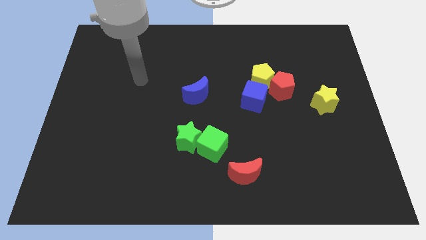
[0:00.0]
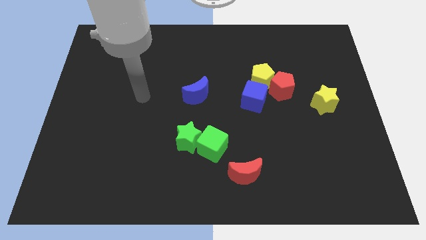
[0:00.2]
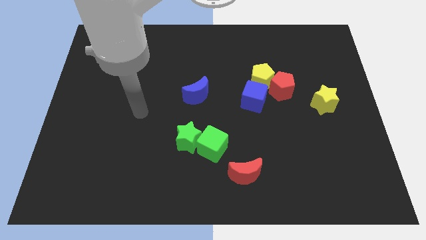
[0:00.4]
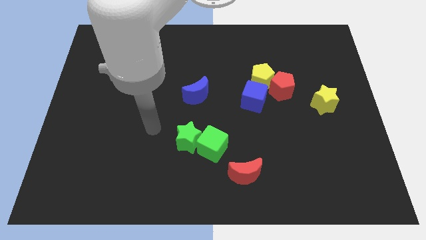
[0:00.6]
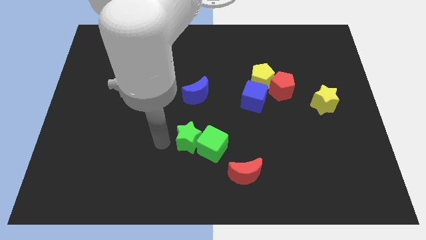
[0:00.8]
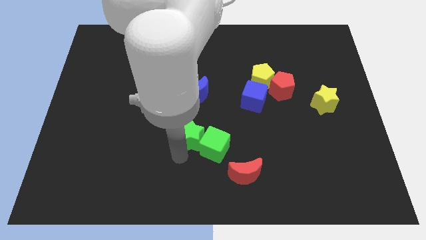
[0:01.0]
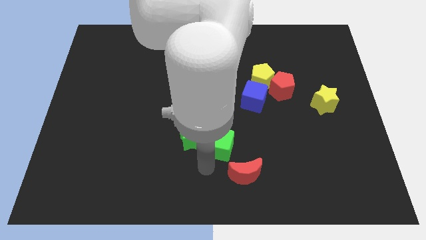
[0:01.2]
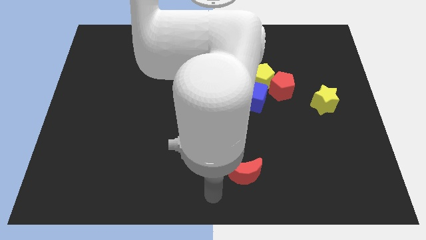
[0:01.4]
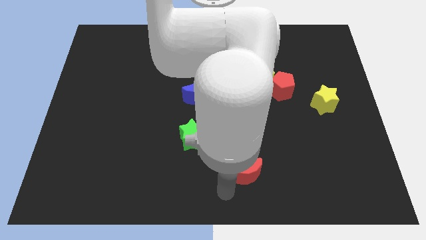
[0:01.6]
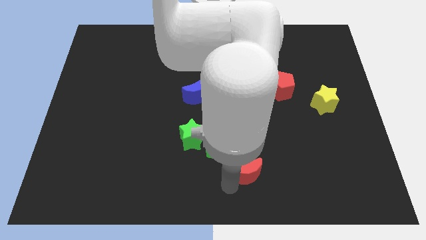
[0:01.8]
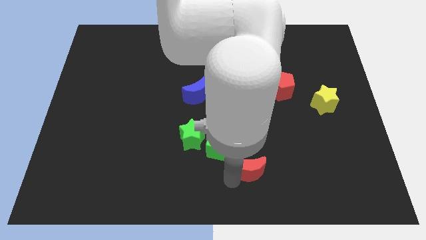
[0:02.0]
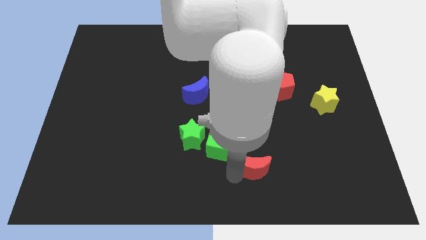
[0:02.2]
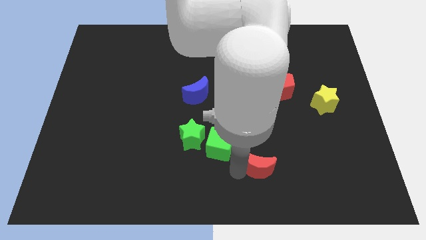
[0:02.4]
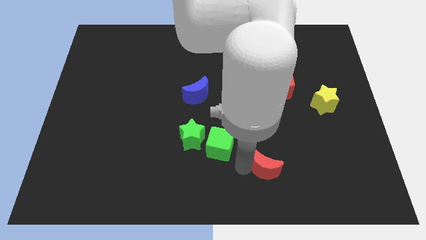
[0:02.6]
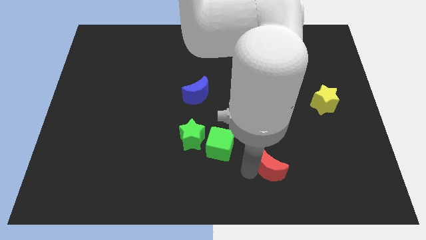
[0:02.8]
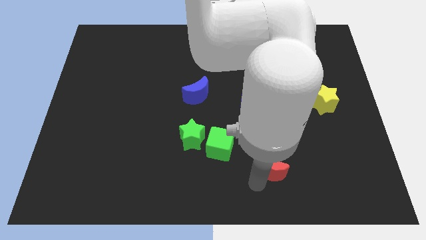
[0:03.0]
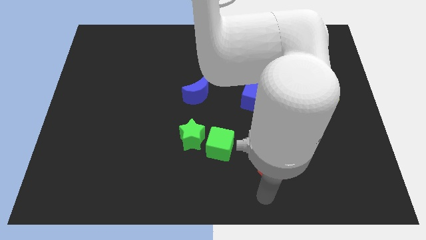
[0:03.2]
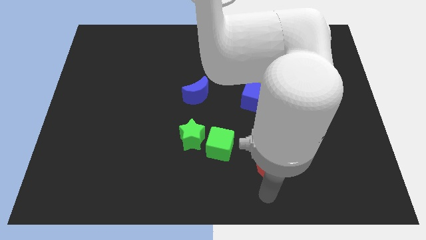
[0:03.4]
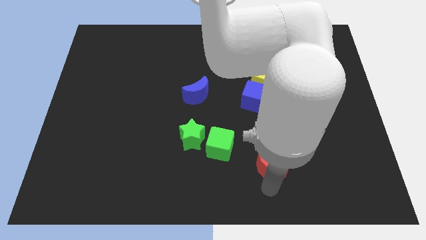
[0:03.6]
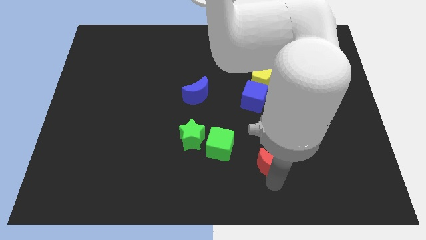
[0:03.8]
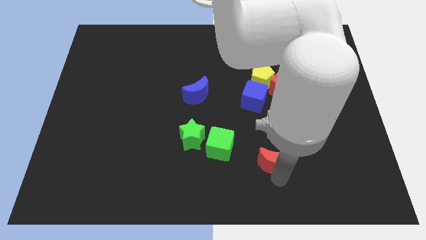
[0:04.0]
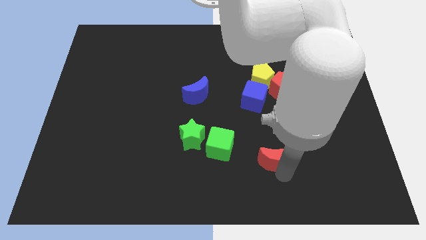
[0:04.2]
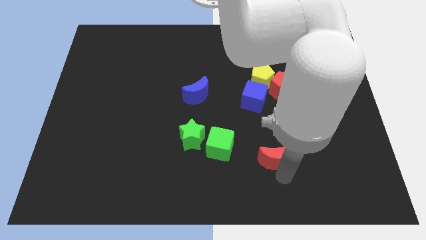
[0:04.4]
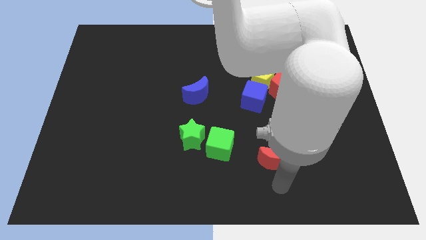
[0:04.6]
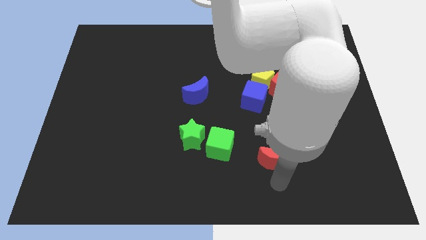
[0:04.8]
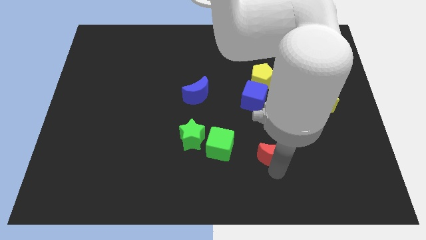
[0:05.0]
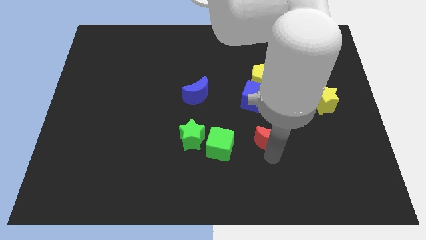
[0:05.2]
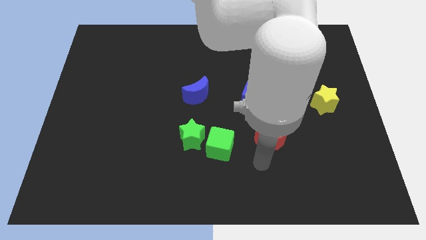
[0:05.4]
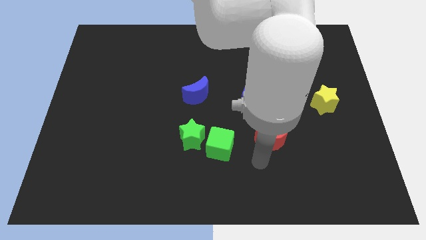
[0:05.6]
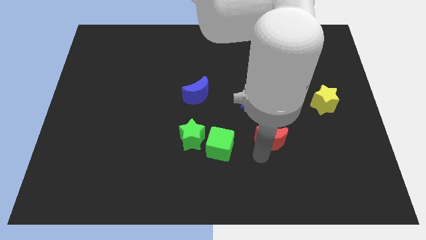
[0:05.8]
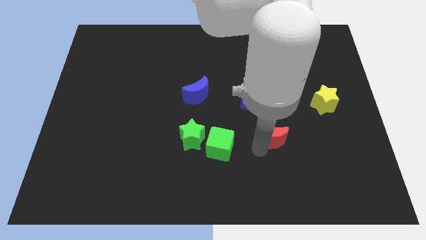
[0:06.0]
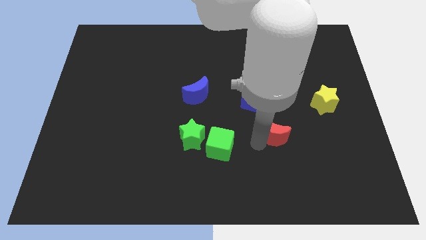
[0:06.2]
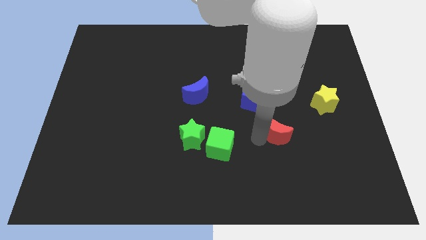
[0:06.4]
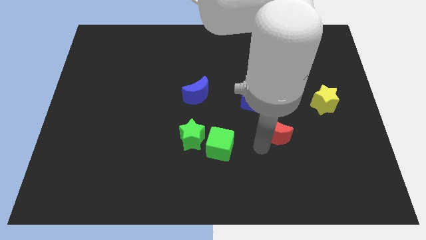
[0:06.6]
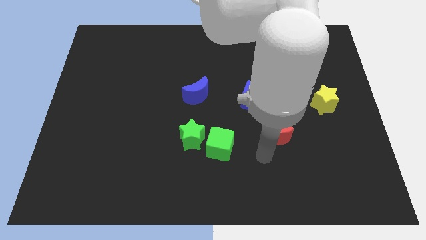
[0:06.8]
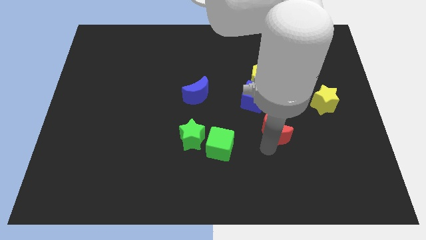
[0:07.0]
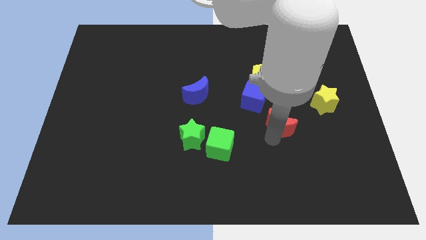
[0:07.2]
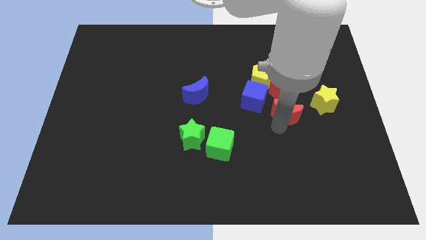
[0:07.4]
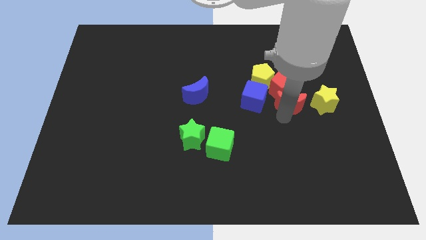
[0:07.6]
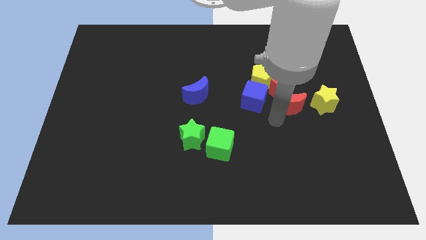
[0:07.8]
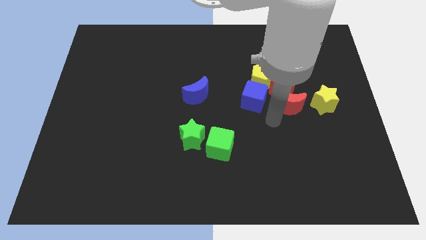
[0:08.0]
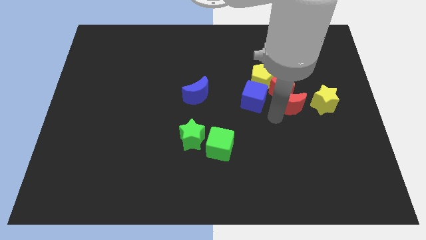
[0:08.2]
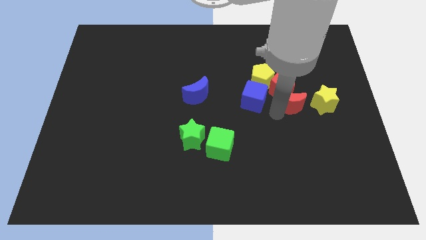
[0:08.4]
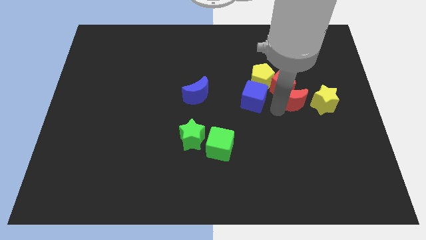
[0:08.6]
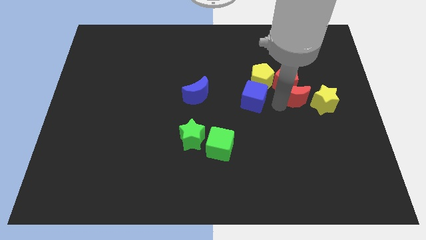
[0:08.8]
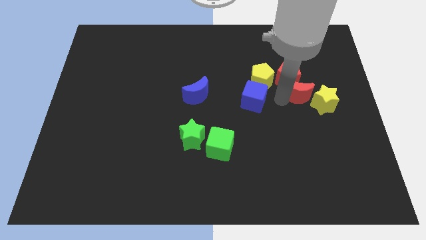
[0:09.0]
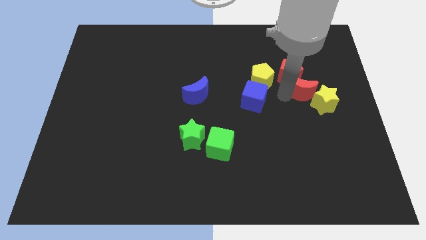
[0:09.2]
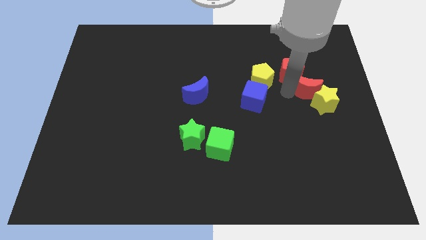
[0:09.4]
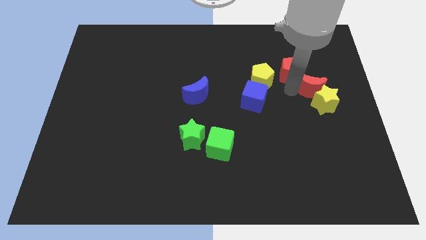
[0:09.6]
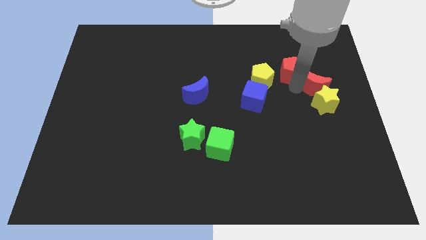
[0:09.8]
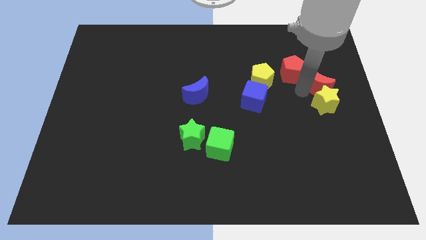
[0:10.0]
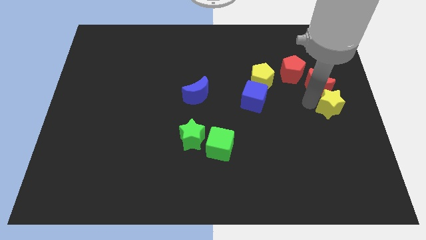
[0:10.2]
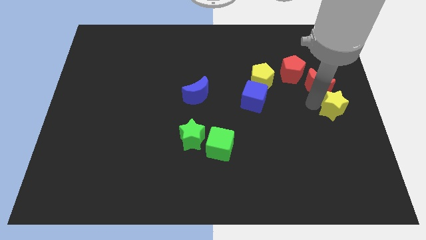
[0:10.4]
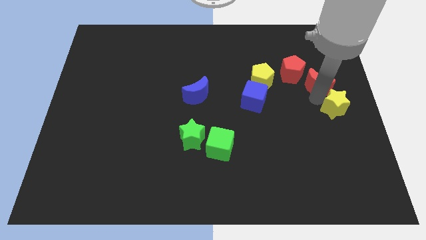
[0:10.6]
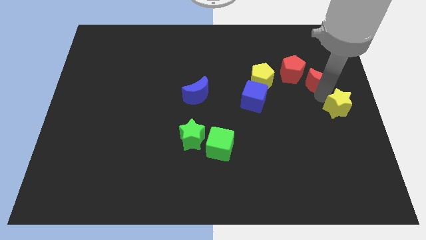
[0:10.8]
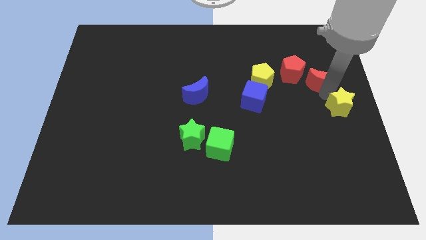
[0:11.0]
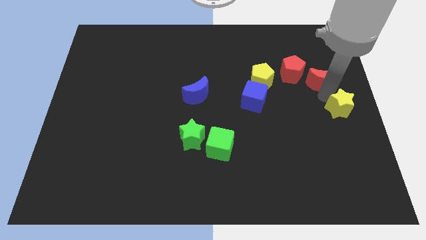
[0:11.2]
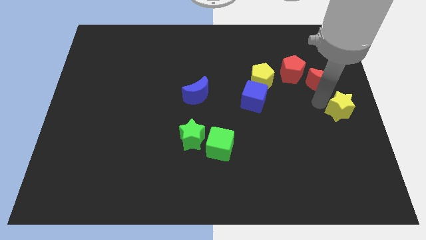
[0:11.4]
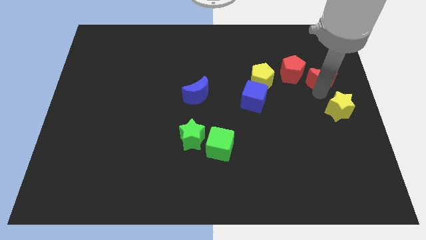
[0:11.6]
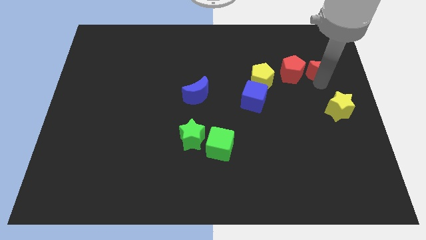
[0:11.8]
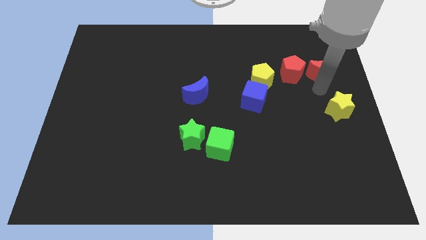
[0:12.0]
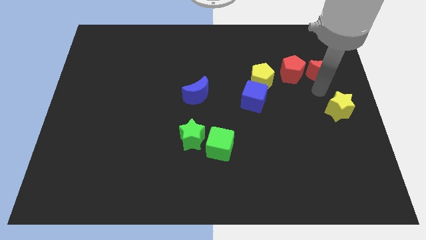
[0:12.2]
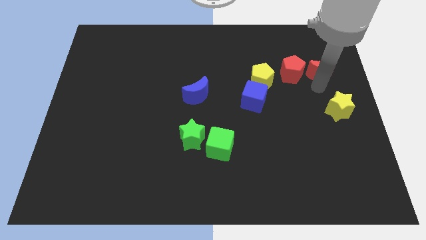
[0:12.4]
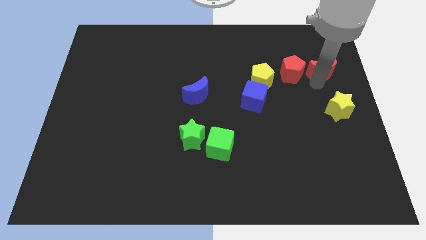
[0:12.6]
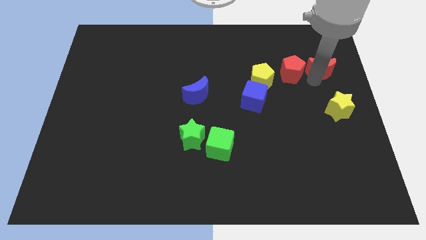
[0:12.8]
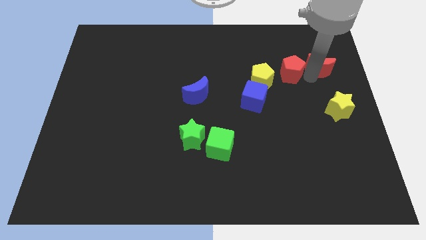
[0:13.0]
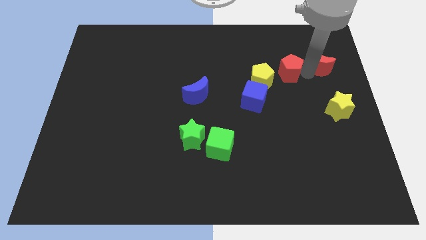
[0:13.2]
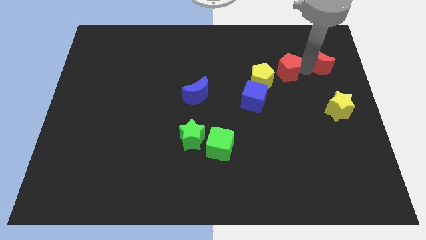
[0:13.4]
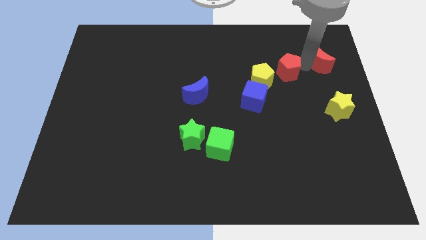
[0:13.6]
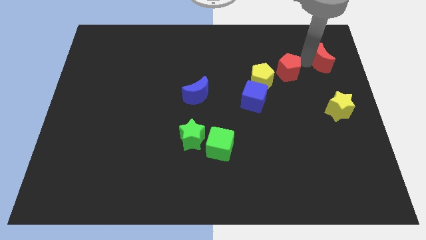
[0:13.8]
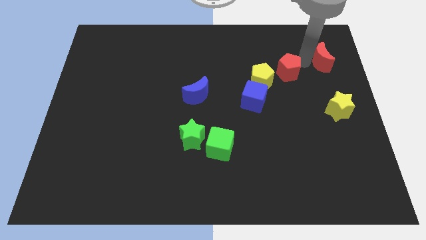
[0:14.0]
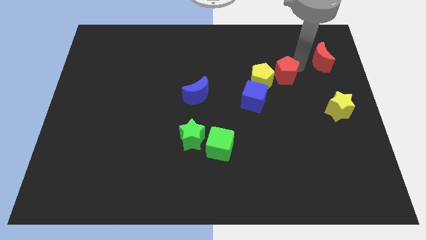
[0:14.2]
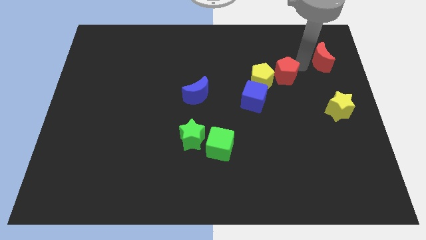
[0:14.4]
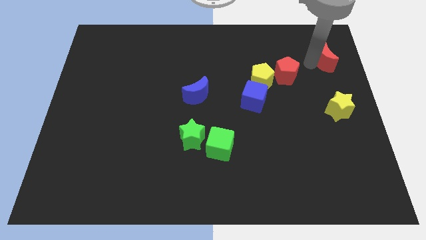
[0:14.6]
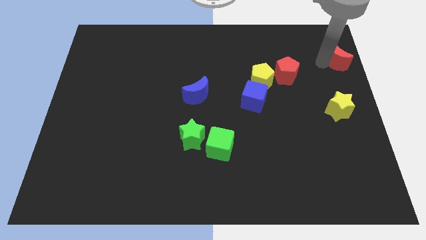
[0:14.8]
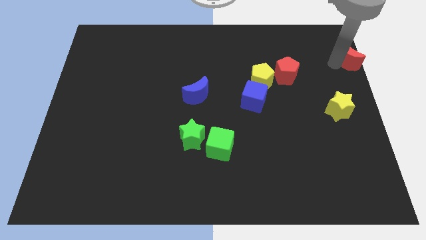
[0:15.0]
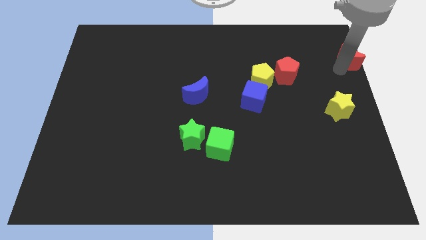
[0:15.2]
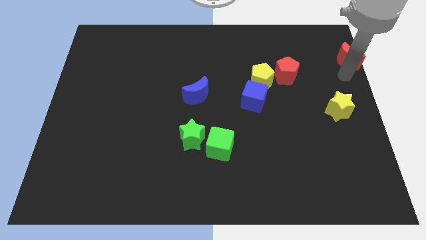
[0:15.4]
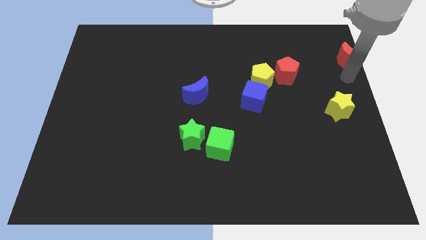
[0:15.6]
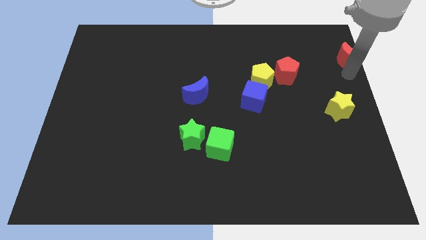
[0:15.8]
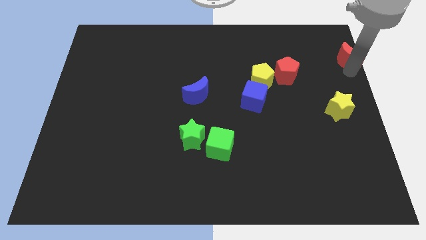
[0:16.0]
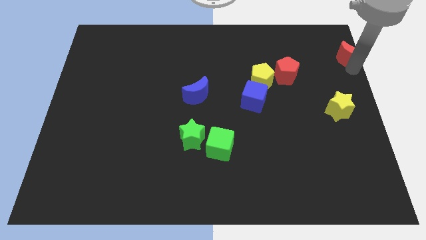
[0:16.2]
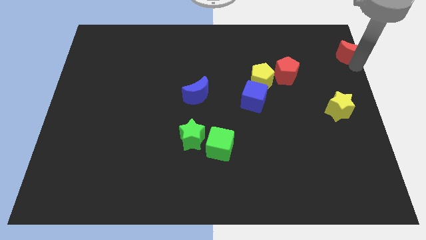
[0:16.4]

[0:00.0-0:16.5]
move the red moon to the upper right corner
